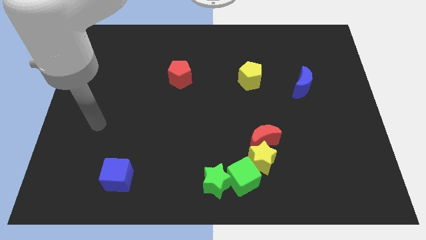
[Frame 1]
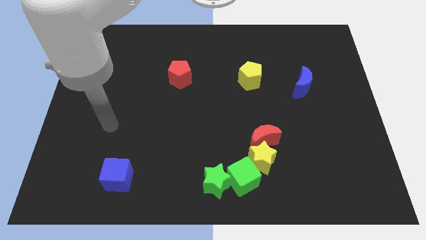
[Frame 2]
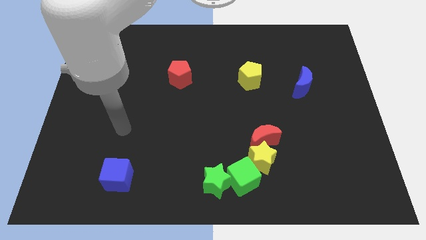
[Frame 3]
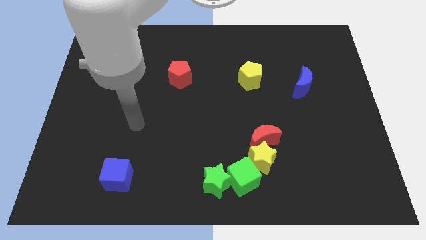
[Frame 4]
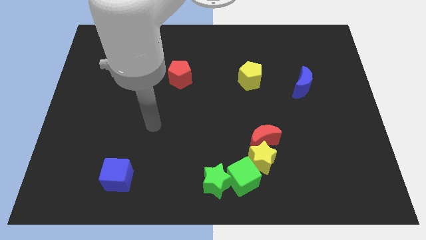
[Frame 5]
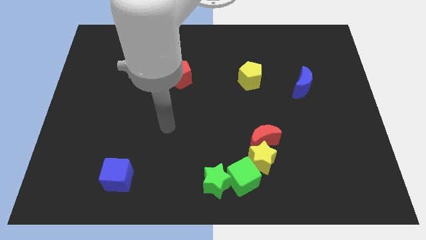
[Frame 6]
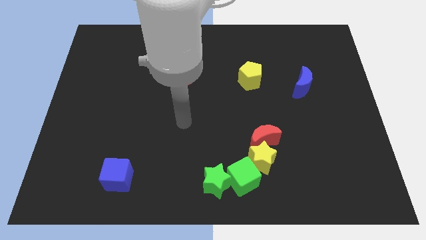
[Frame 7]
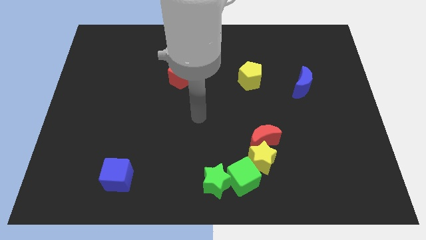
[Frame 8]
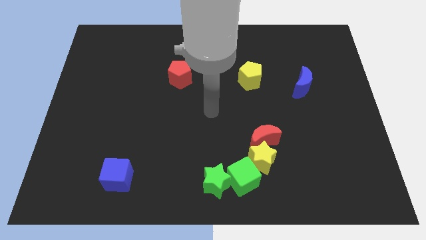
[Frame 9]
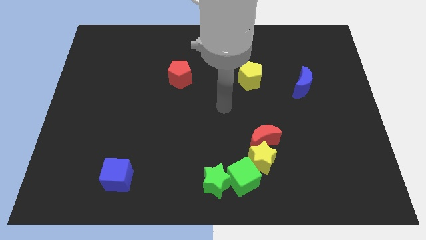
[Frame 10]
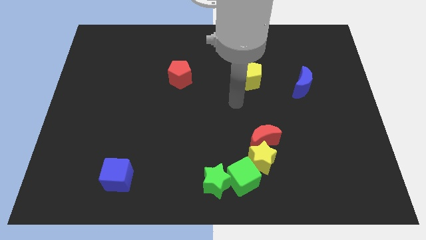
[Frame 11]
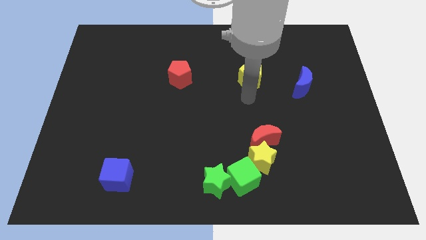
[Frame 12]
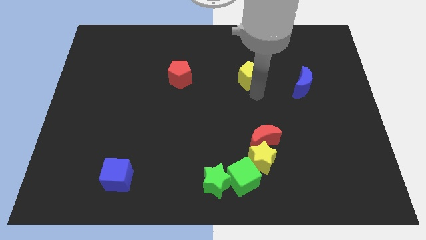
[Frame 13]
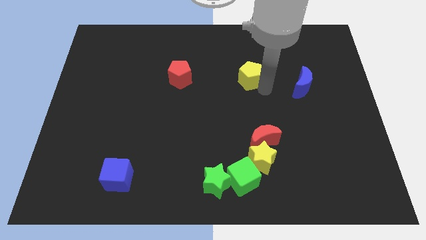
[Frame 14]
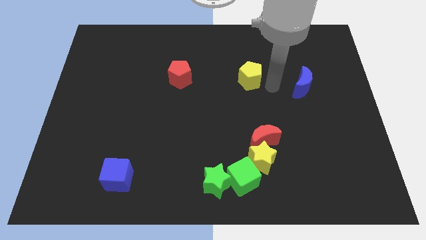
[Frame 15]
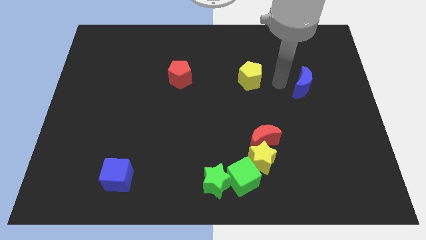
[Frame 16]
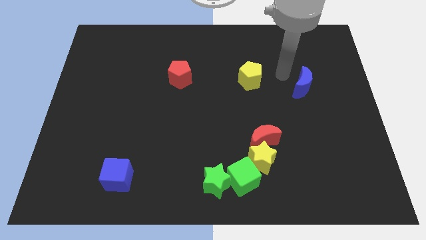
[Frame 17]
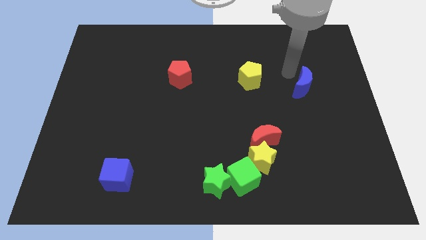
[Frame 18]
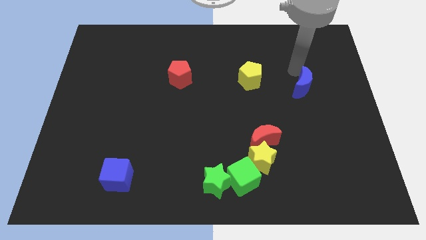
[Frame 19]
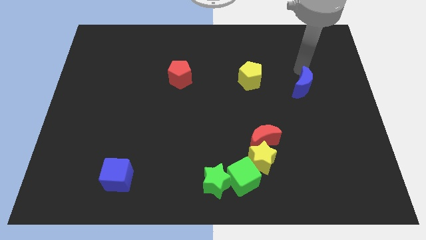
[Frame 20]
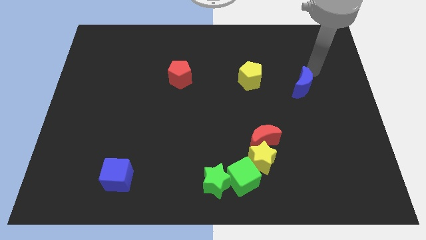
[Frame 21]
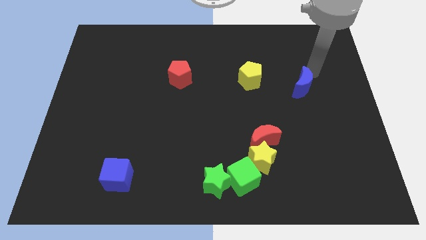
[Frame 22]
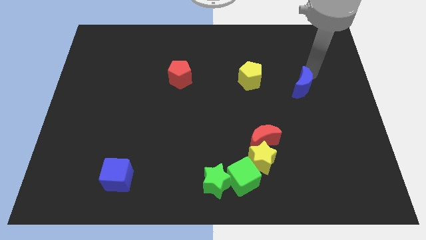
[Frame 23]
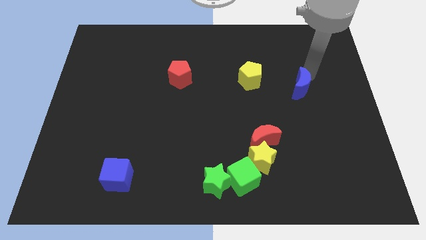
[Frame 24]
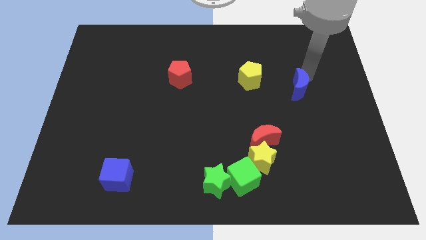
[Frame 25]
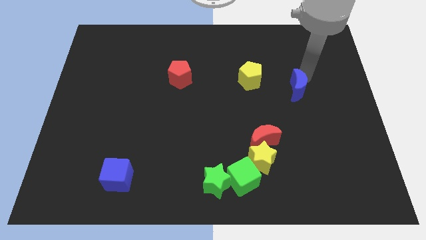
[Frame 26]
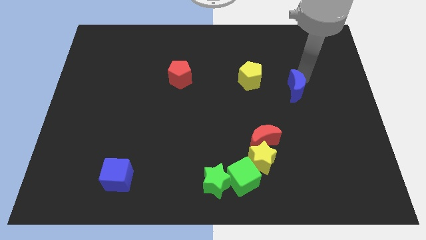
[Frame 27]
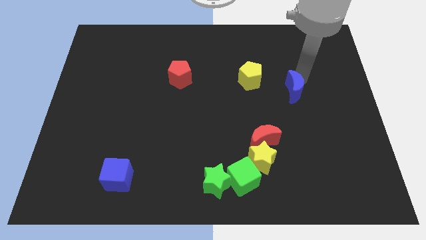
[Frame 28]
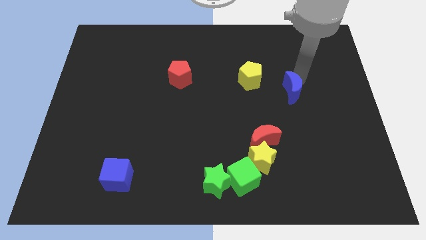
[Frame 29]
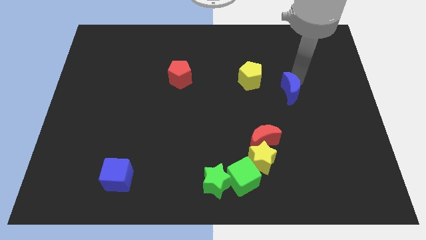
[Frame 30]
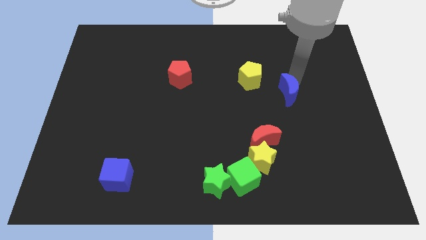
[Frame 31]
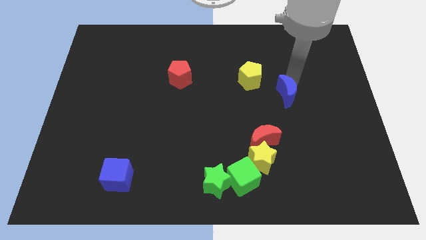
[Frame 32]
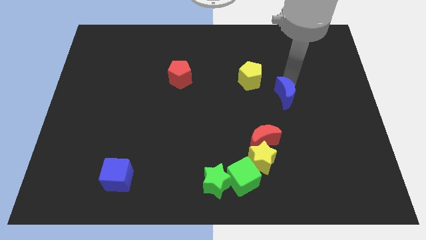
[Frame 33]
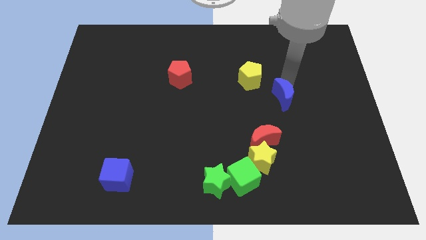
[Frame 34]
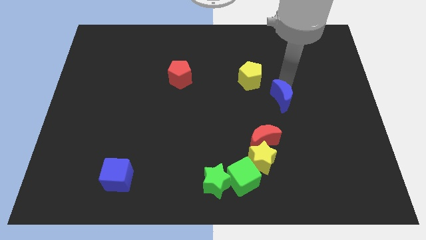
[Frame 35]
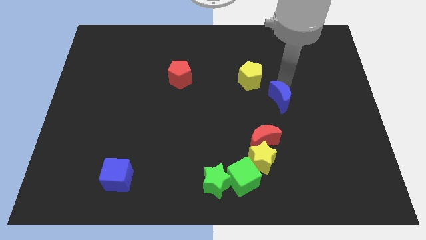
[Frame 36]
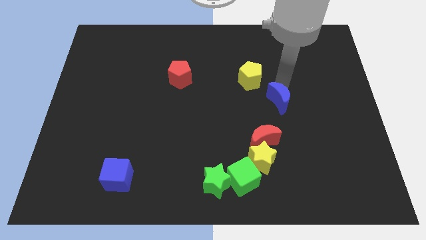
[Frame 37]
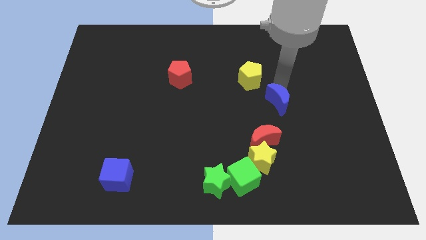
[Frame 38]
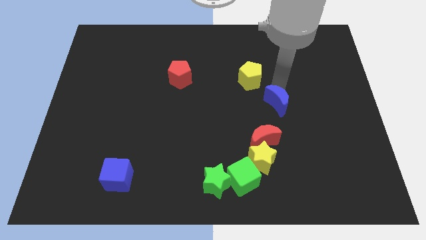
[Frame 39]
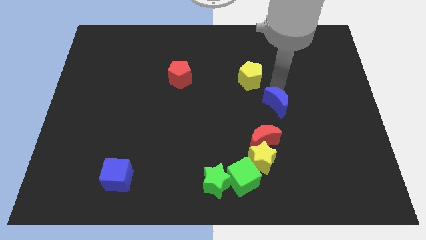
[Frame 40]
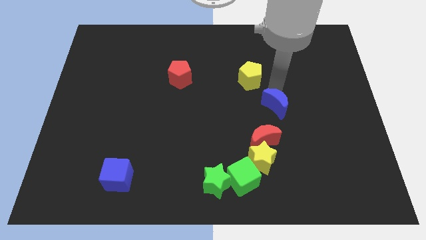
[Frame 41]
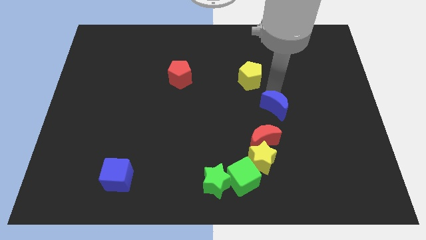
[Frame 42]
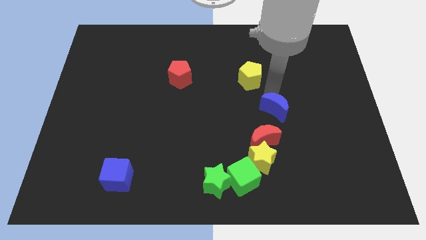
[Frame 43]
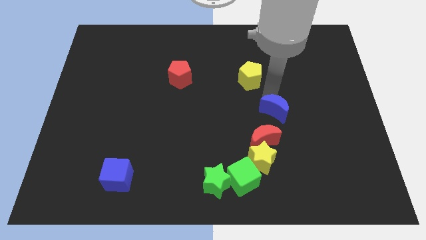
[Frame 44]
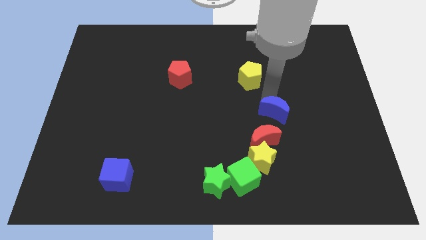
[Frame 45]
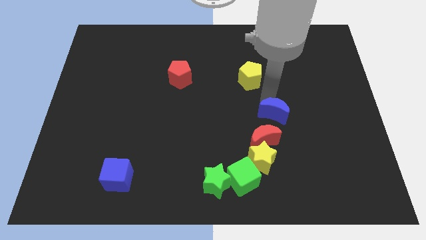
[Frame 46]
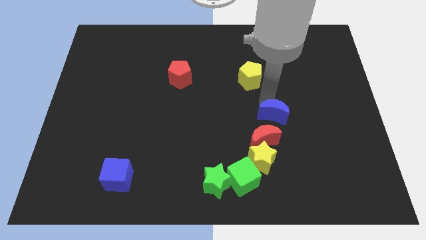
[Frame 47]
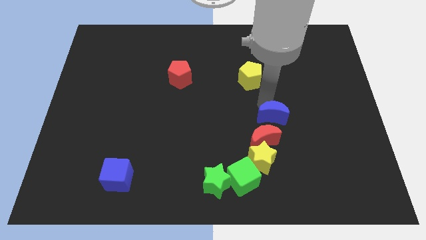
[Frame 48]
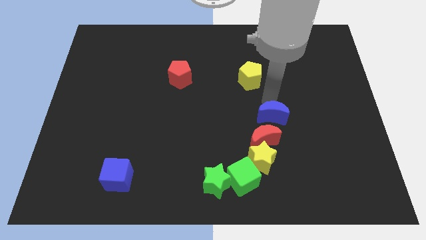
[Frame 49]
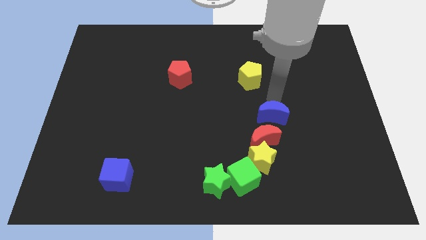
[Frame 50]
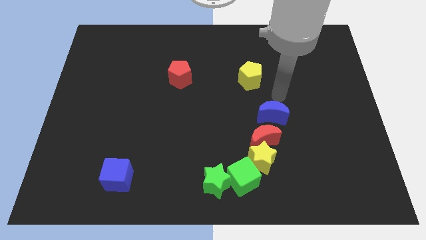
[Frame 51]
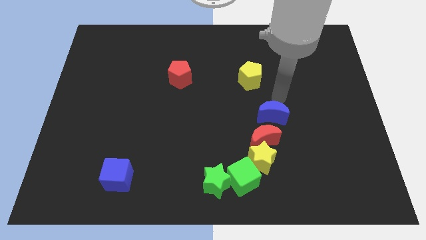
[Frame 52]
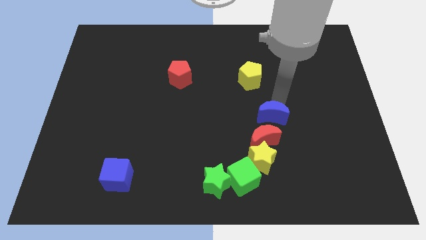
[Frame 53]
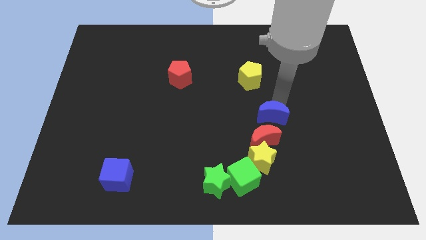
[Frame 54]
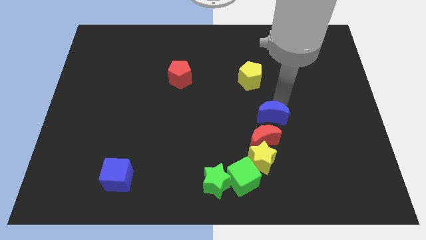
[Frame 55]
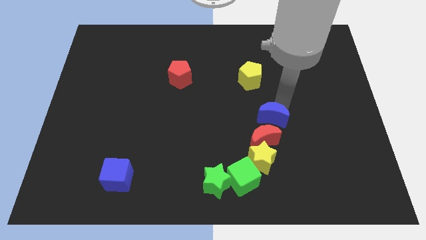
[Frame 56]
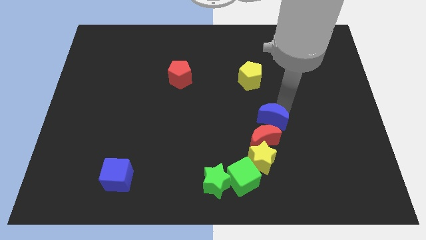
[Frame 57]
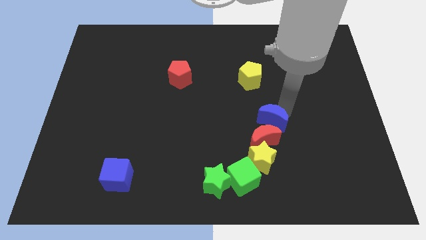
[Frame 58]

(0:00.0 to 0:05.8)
move the blue moon to the red moon

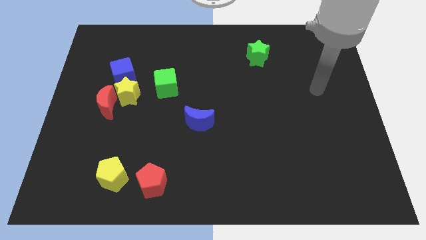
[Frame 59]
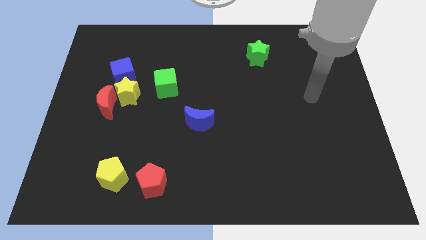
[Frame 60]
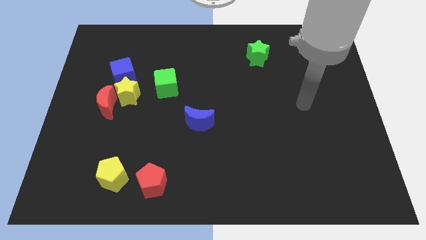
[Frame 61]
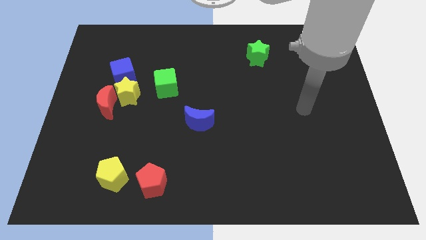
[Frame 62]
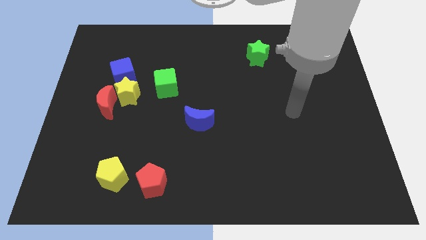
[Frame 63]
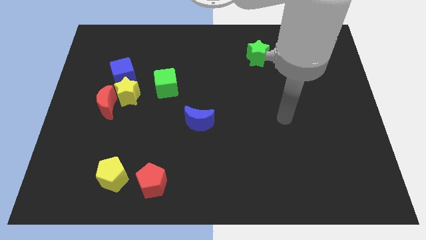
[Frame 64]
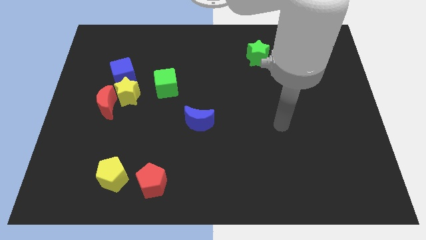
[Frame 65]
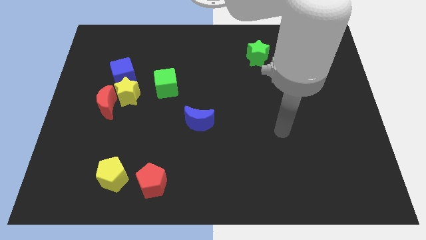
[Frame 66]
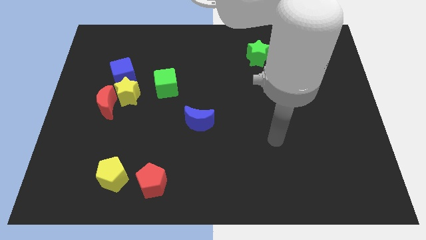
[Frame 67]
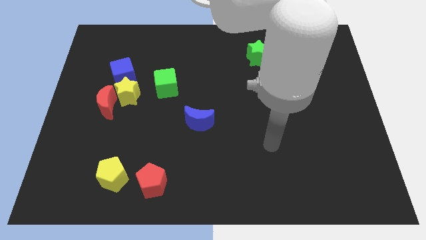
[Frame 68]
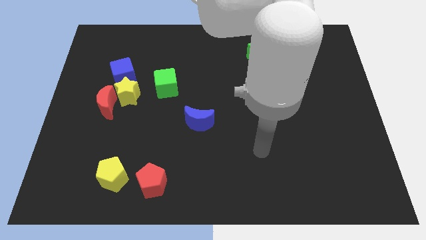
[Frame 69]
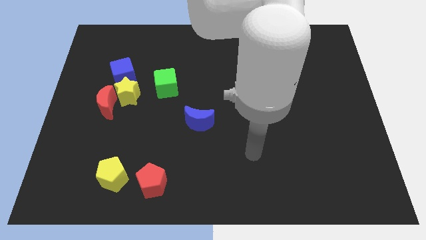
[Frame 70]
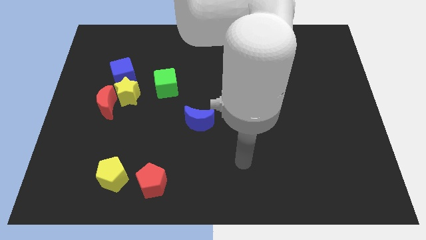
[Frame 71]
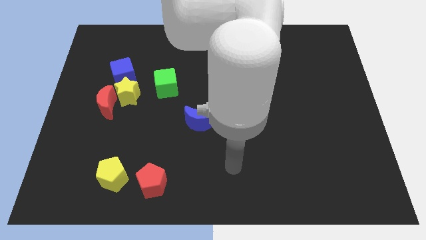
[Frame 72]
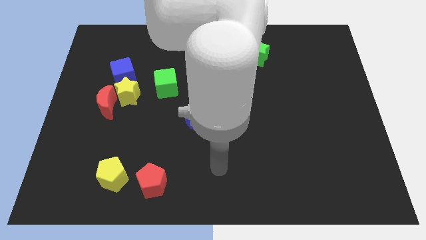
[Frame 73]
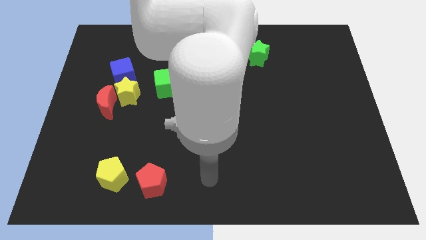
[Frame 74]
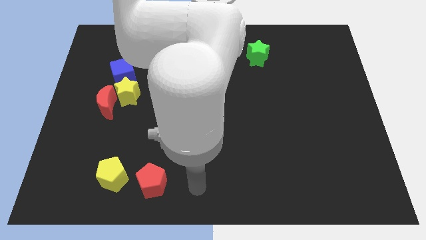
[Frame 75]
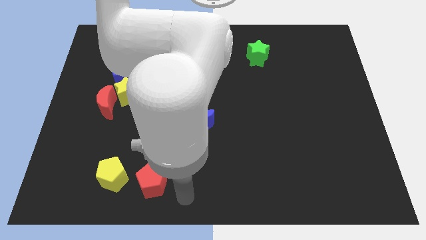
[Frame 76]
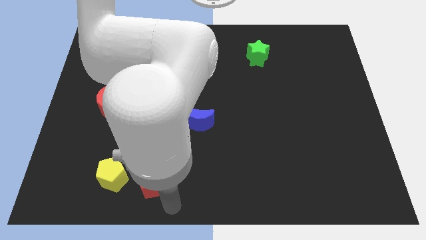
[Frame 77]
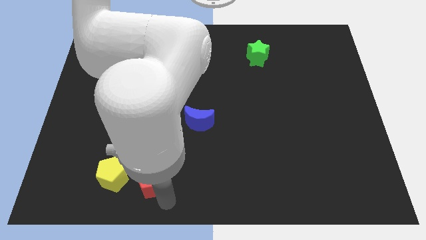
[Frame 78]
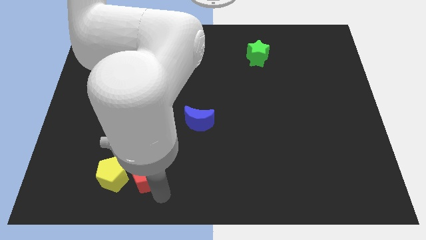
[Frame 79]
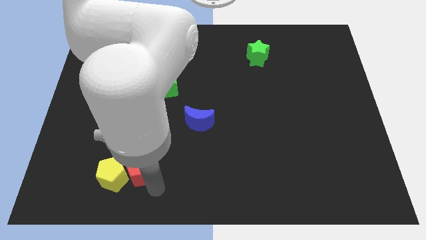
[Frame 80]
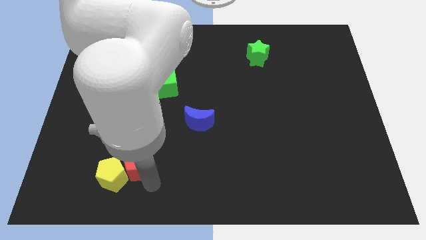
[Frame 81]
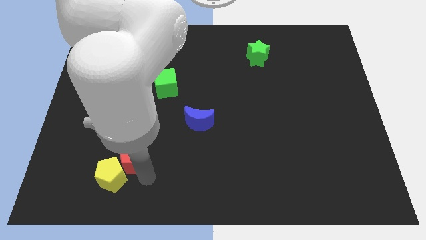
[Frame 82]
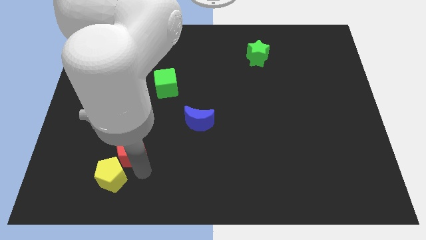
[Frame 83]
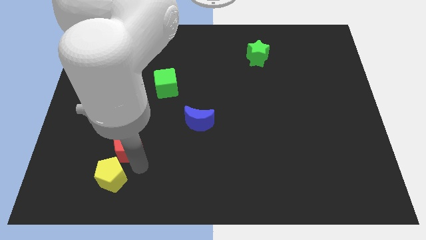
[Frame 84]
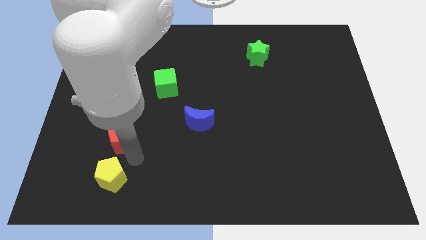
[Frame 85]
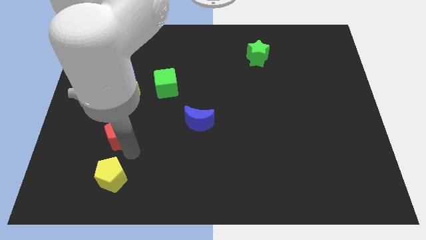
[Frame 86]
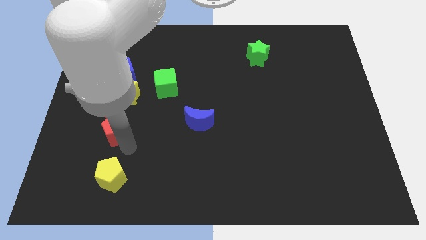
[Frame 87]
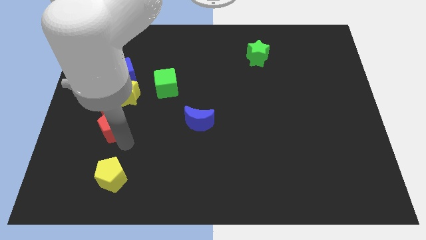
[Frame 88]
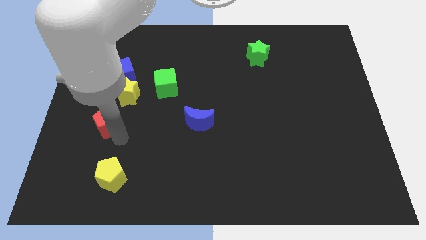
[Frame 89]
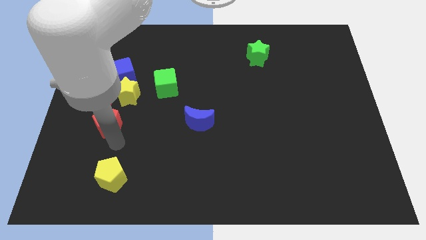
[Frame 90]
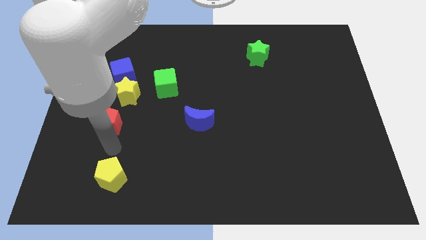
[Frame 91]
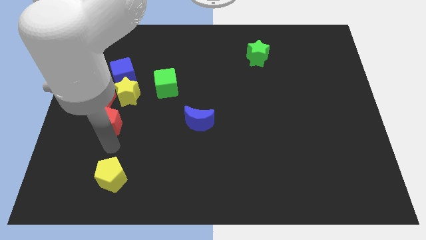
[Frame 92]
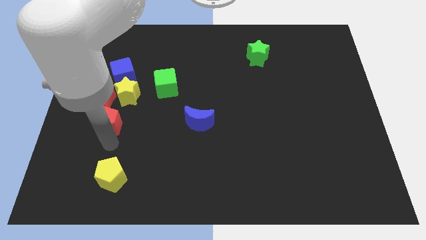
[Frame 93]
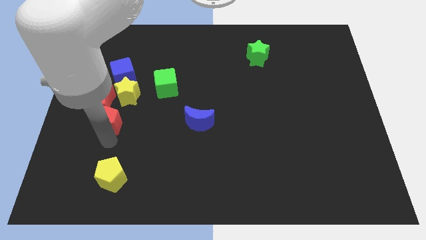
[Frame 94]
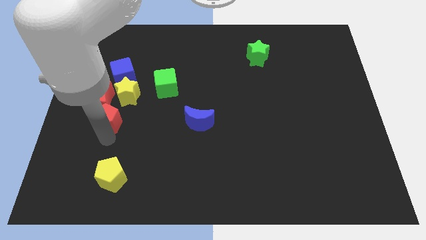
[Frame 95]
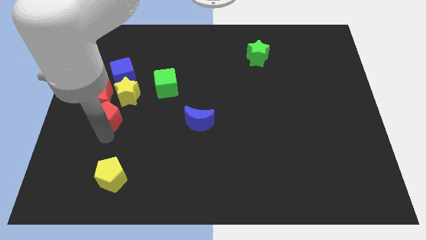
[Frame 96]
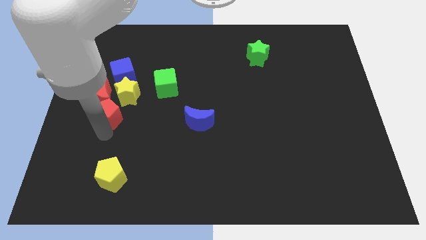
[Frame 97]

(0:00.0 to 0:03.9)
push the red pentagon next to the red moon
